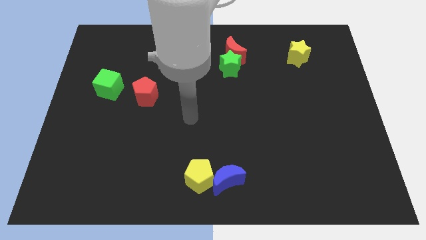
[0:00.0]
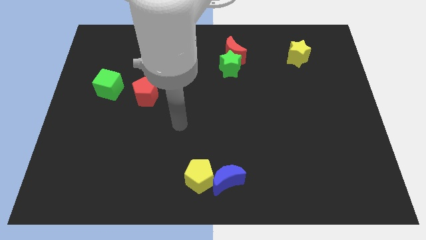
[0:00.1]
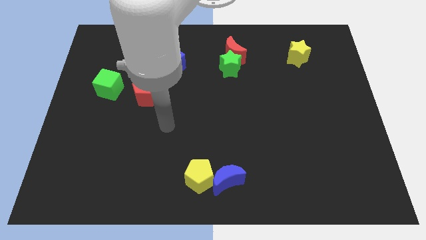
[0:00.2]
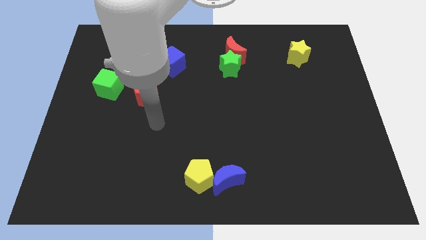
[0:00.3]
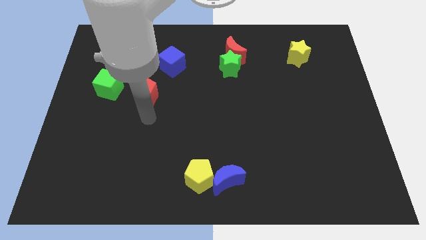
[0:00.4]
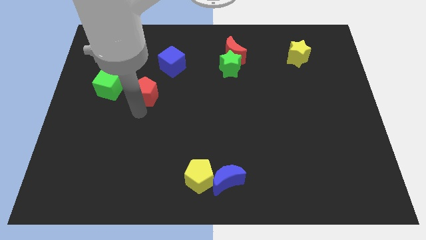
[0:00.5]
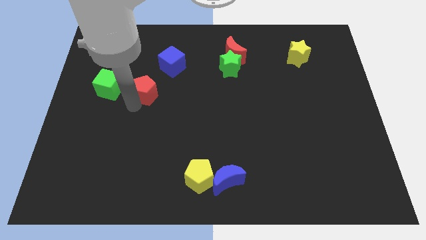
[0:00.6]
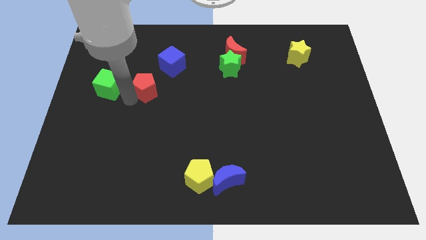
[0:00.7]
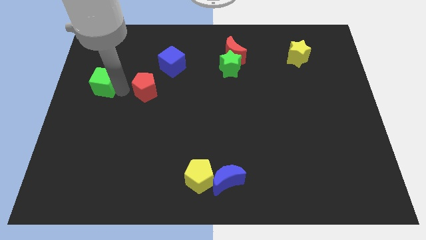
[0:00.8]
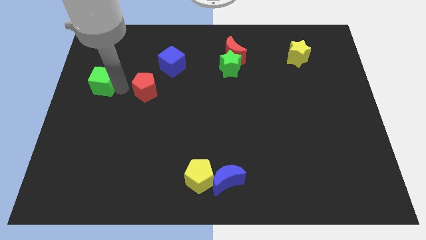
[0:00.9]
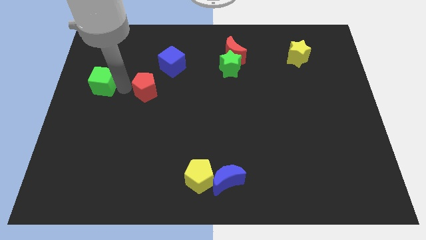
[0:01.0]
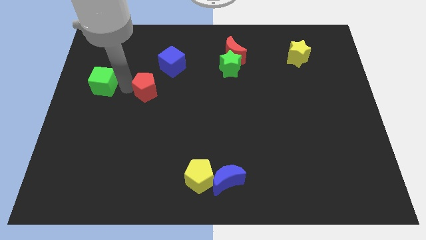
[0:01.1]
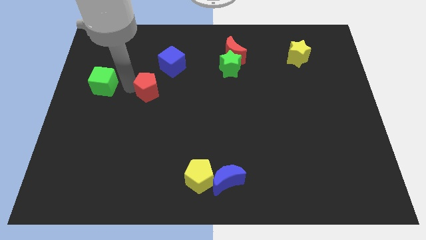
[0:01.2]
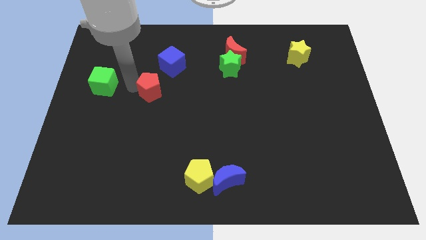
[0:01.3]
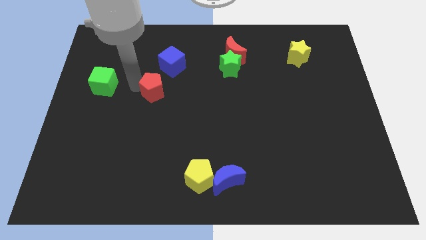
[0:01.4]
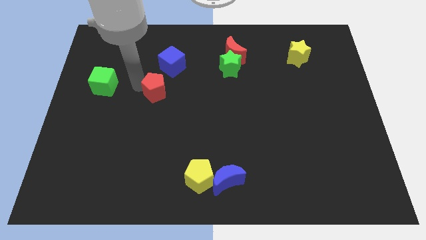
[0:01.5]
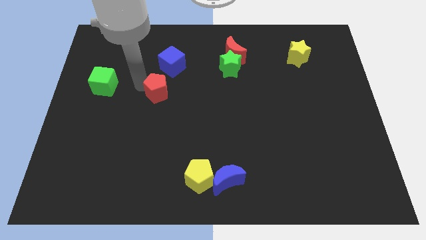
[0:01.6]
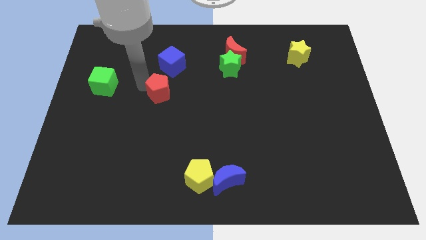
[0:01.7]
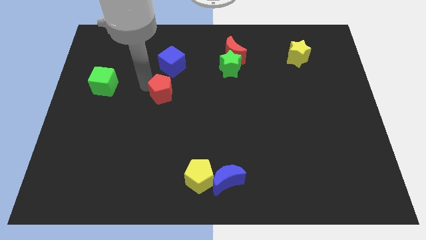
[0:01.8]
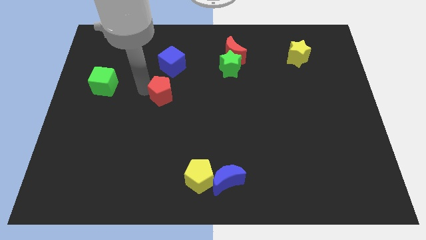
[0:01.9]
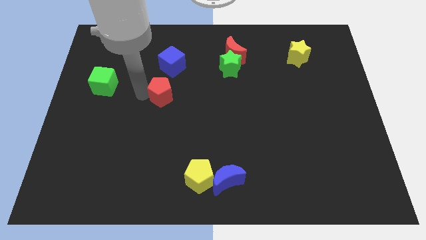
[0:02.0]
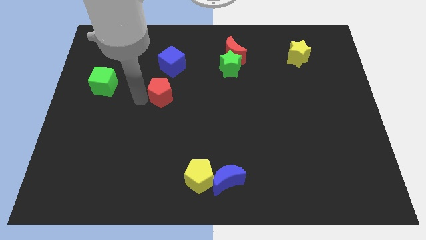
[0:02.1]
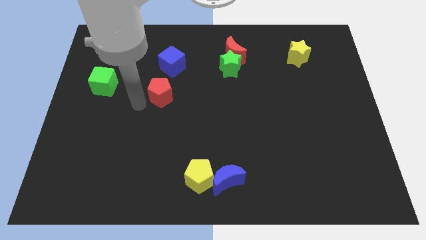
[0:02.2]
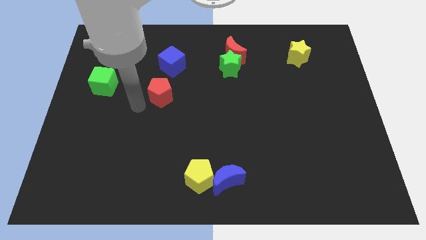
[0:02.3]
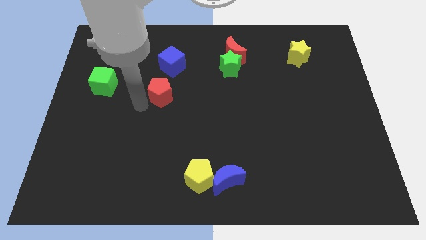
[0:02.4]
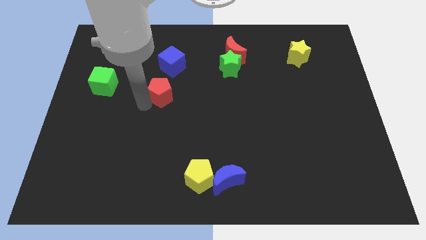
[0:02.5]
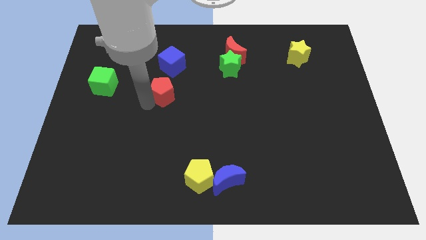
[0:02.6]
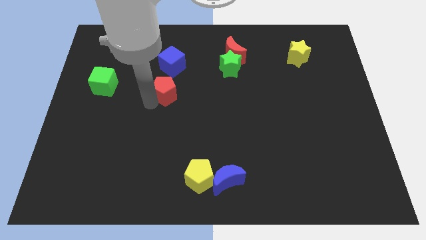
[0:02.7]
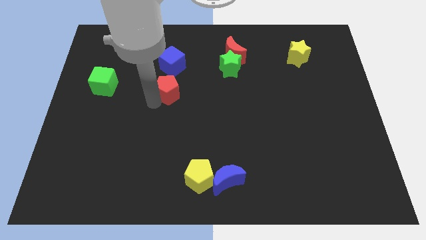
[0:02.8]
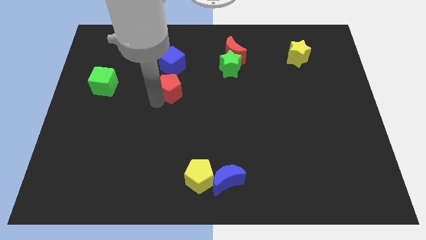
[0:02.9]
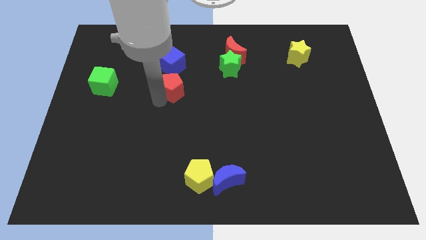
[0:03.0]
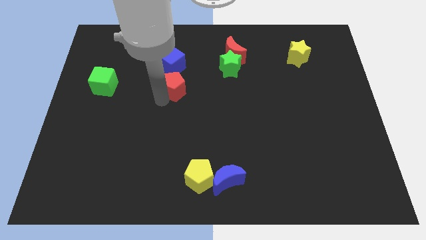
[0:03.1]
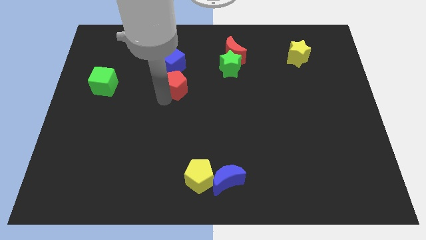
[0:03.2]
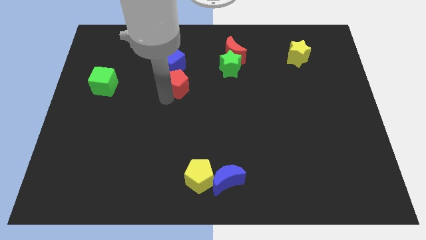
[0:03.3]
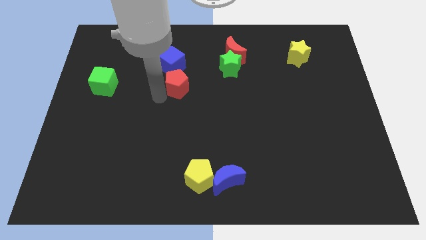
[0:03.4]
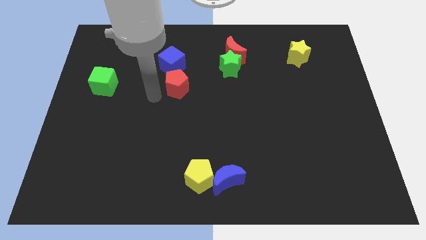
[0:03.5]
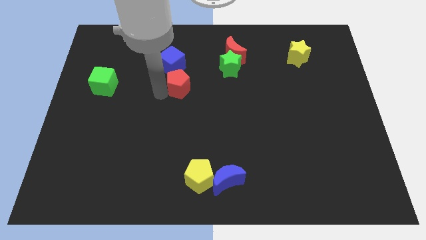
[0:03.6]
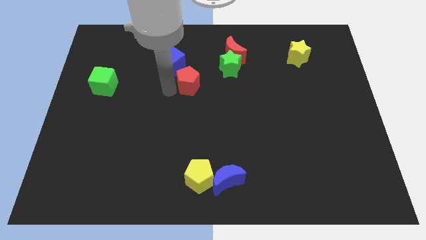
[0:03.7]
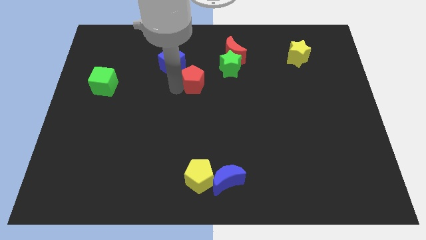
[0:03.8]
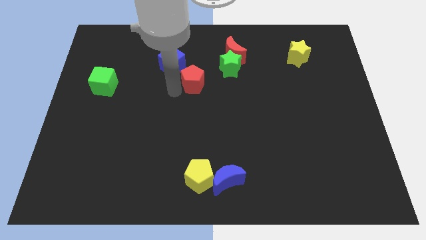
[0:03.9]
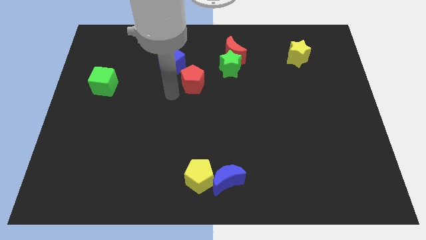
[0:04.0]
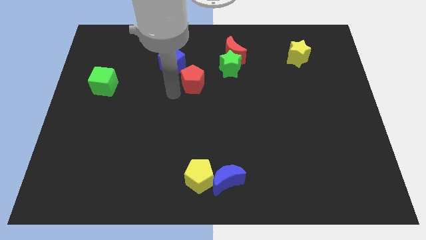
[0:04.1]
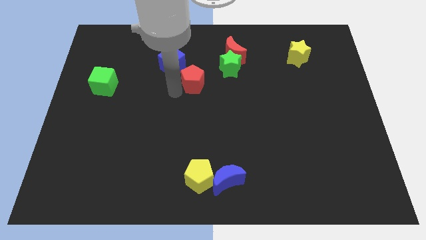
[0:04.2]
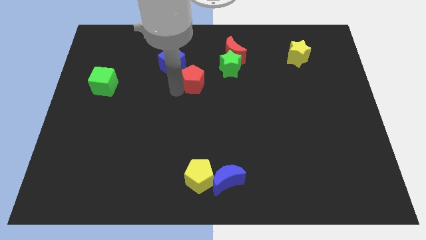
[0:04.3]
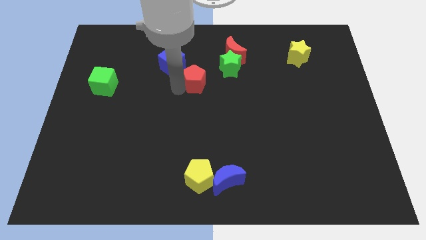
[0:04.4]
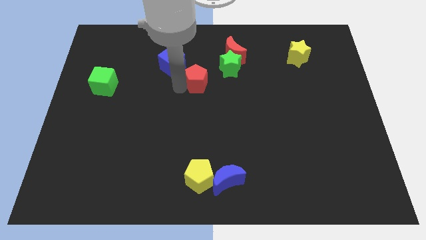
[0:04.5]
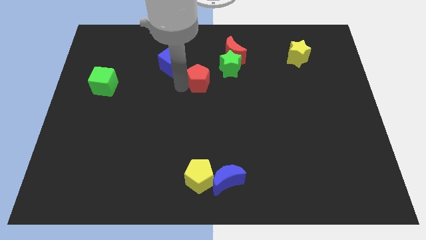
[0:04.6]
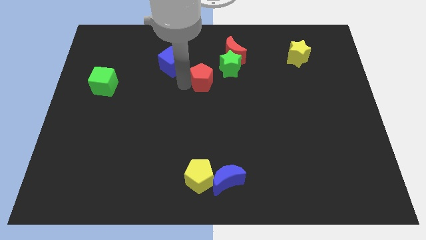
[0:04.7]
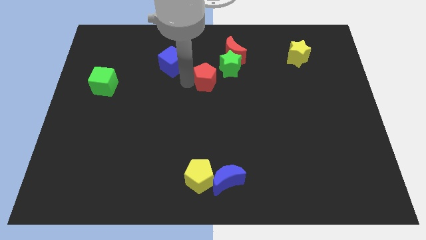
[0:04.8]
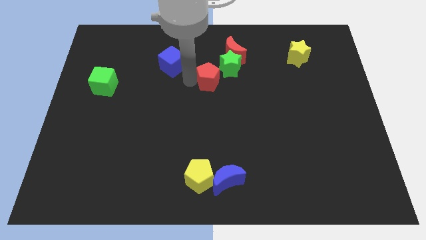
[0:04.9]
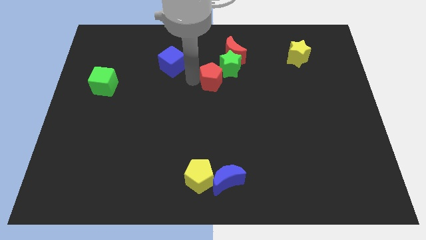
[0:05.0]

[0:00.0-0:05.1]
move the red pentagon towards the green star

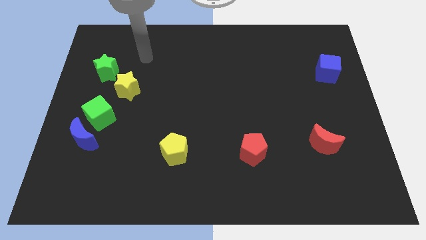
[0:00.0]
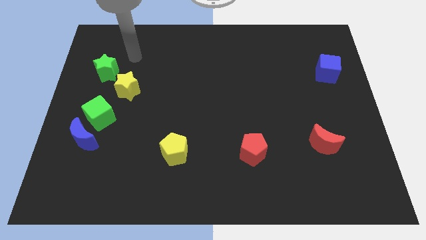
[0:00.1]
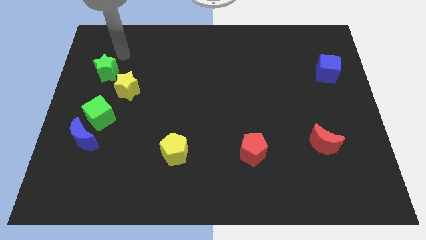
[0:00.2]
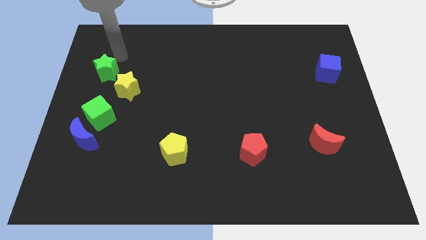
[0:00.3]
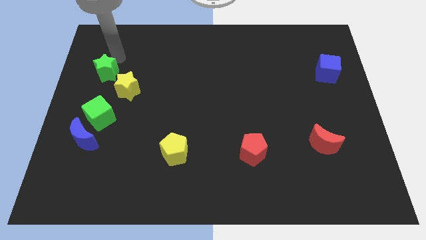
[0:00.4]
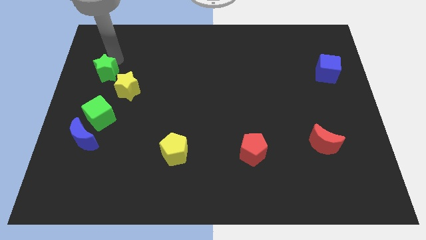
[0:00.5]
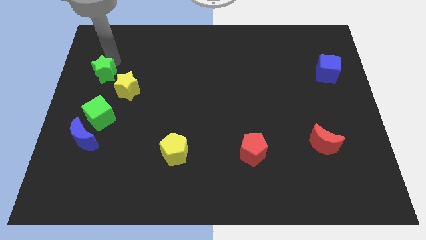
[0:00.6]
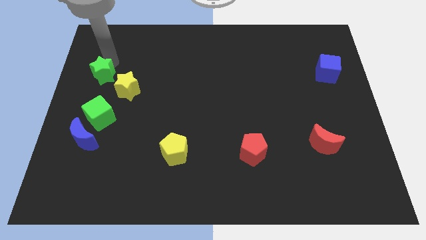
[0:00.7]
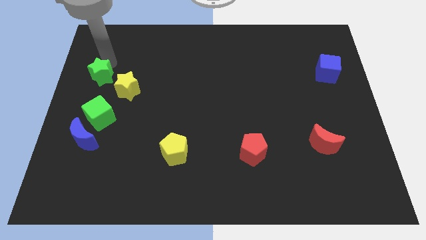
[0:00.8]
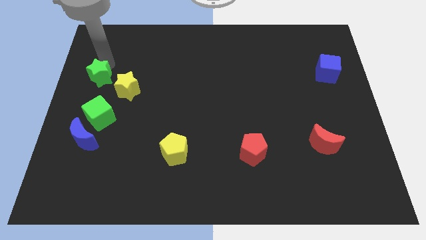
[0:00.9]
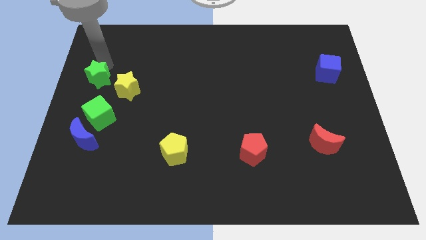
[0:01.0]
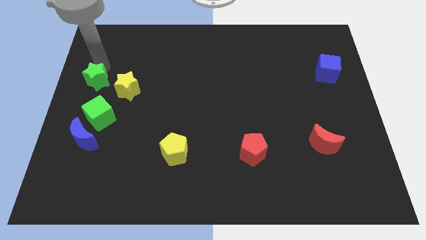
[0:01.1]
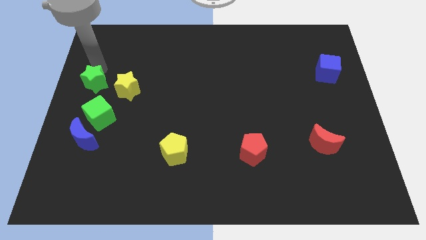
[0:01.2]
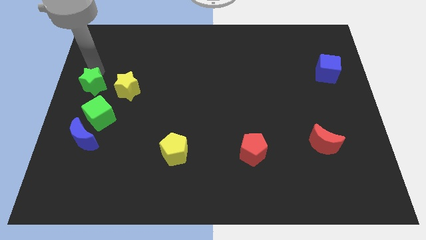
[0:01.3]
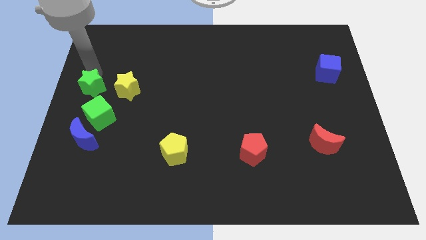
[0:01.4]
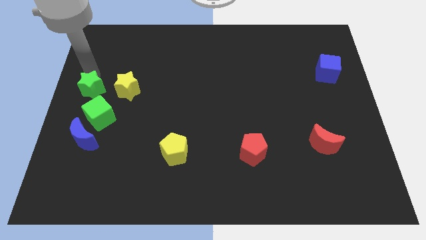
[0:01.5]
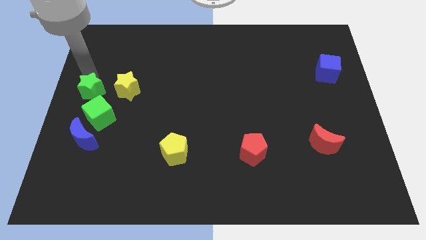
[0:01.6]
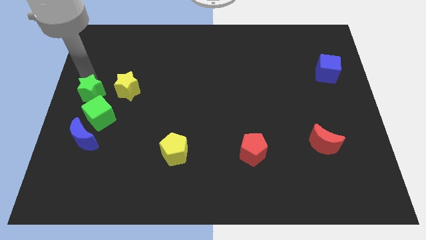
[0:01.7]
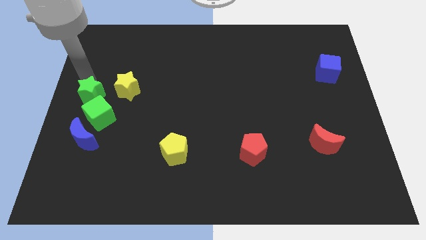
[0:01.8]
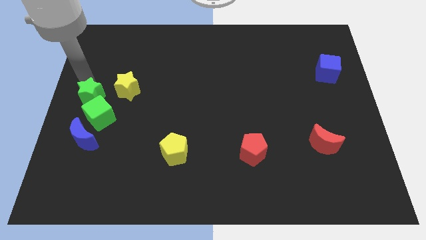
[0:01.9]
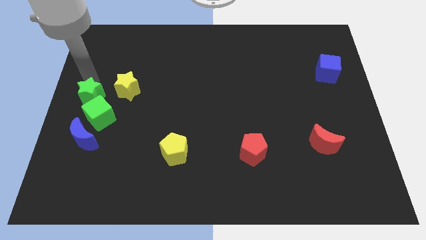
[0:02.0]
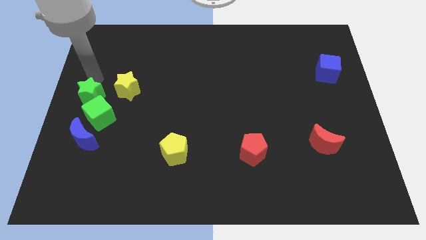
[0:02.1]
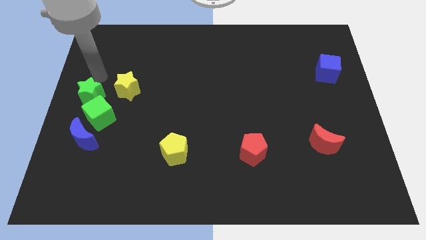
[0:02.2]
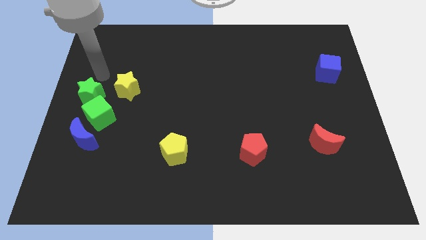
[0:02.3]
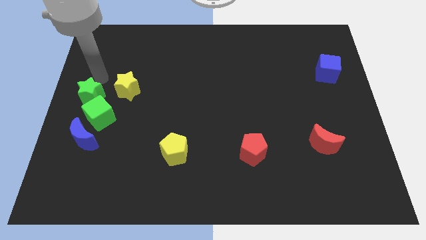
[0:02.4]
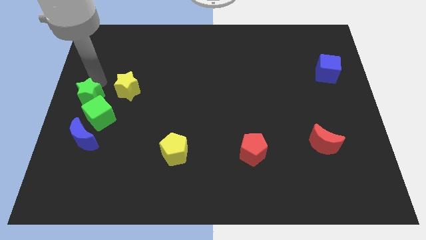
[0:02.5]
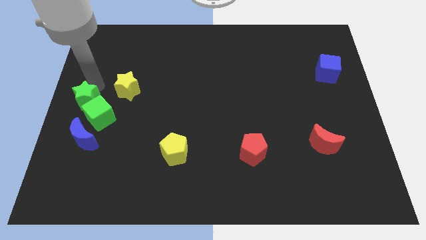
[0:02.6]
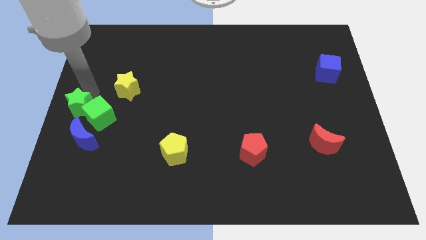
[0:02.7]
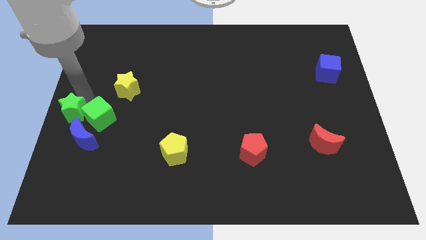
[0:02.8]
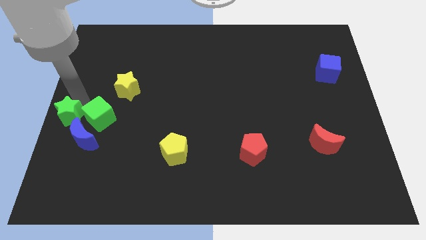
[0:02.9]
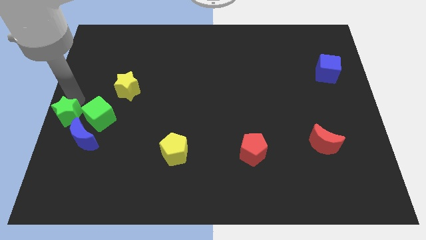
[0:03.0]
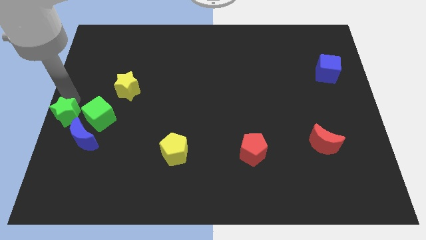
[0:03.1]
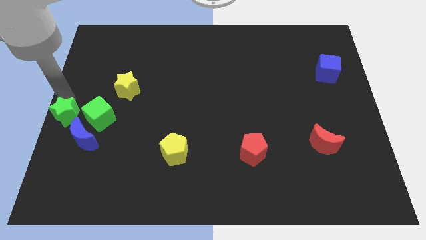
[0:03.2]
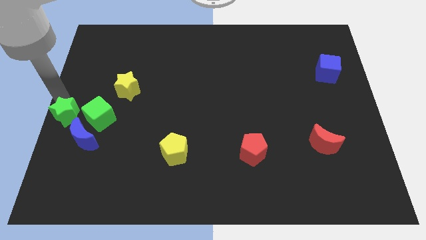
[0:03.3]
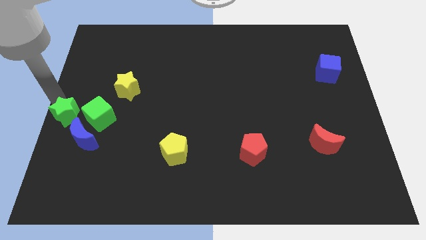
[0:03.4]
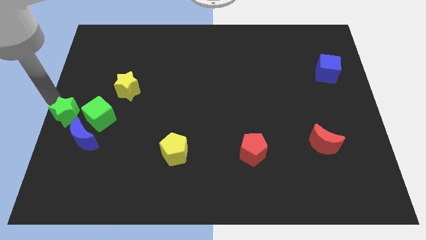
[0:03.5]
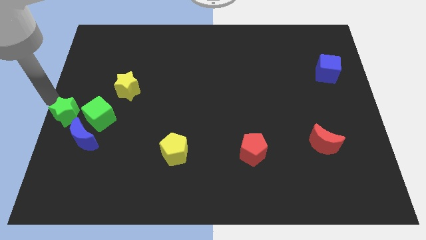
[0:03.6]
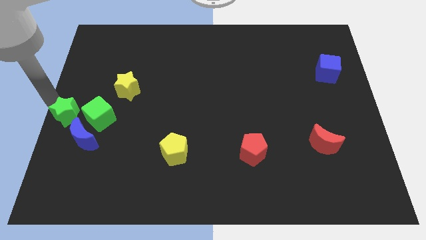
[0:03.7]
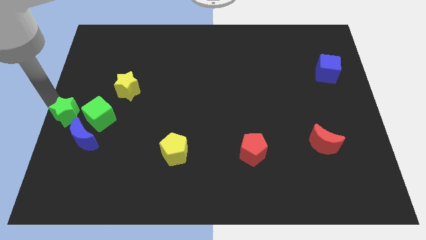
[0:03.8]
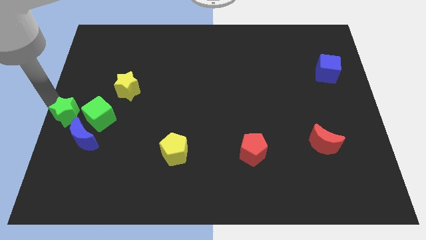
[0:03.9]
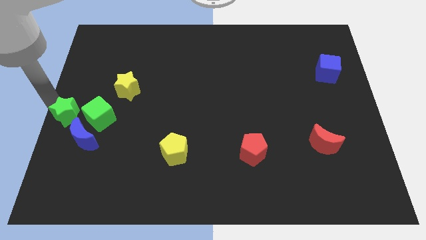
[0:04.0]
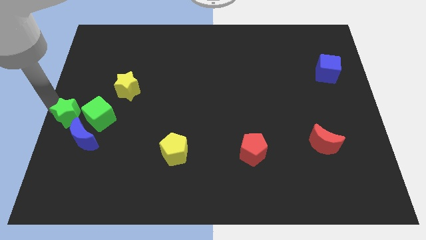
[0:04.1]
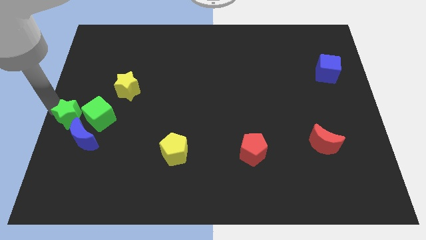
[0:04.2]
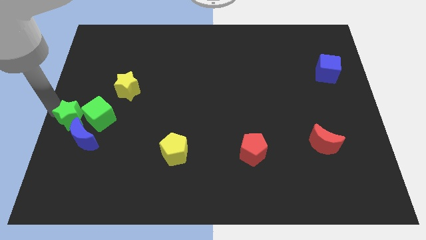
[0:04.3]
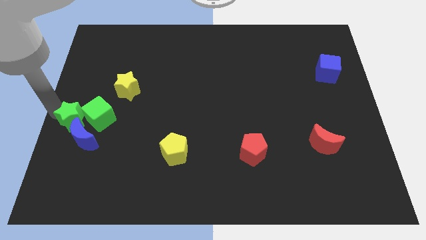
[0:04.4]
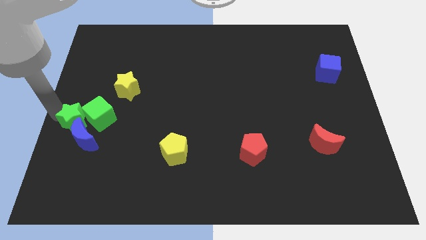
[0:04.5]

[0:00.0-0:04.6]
slide the green star towards the blue moon
